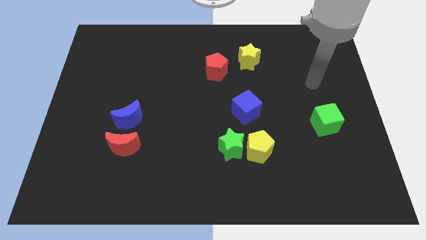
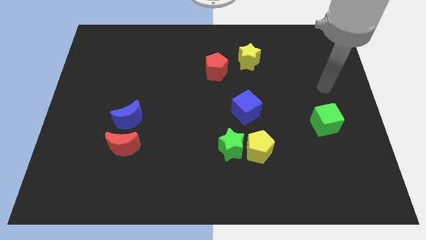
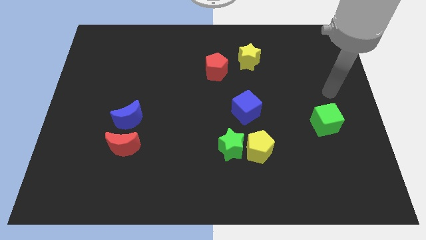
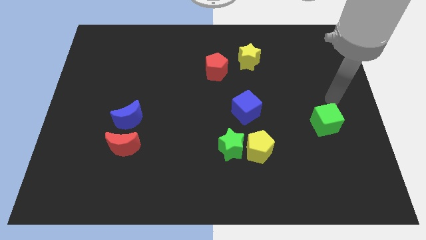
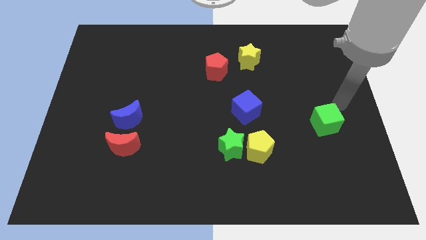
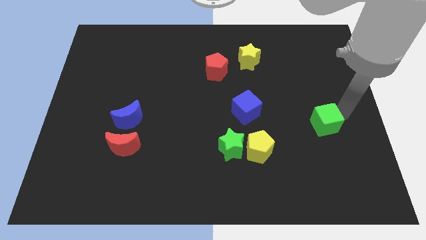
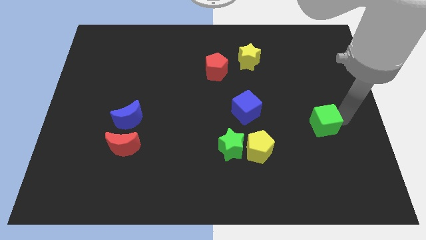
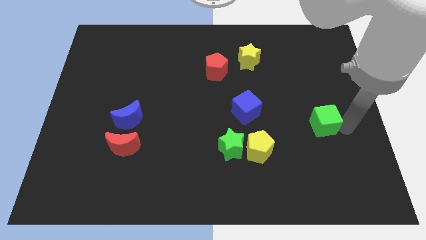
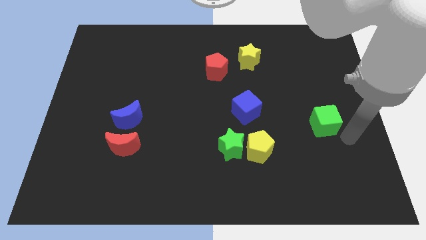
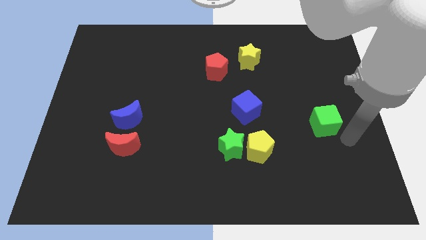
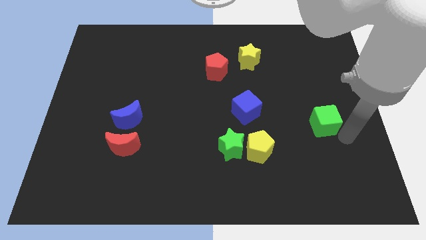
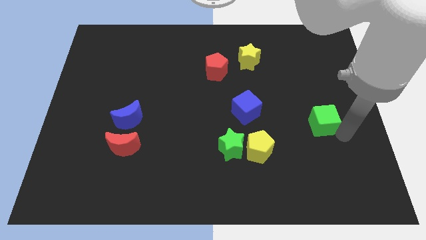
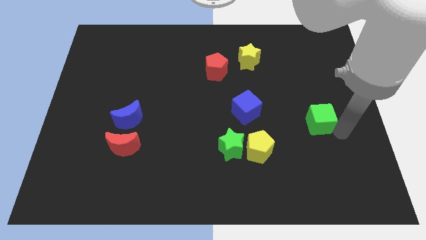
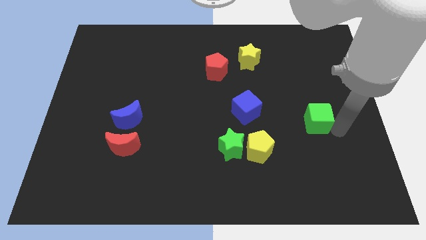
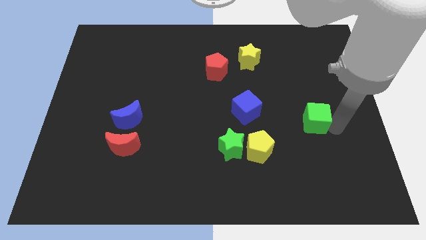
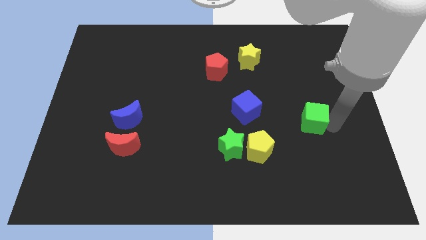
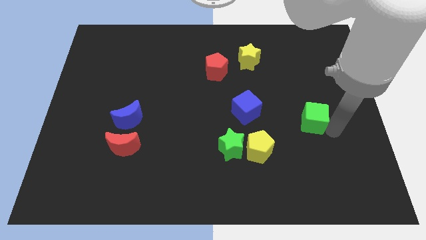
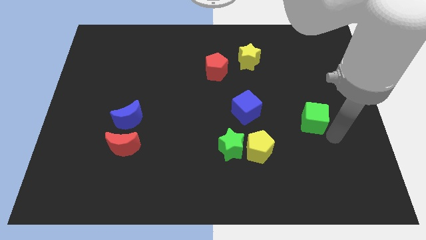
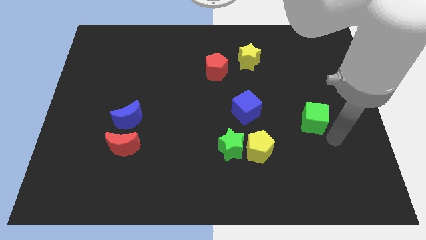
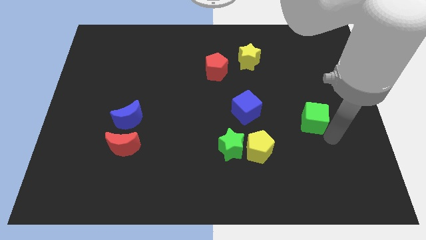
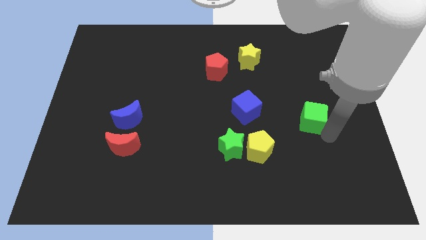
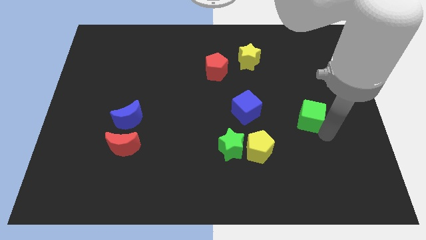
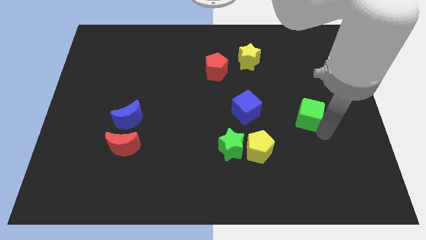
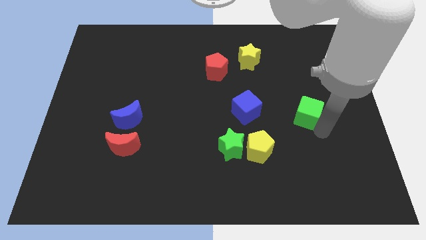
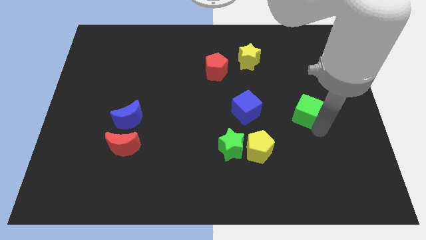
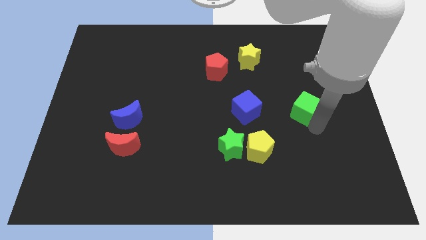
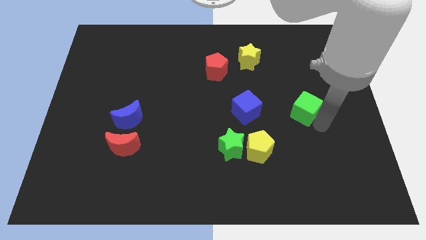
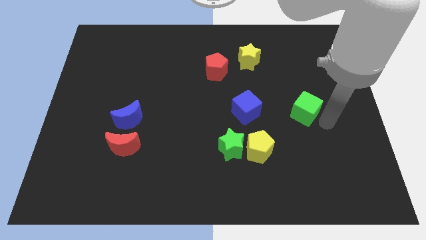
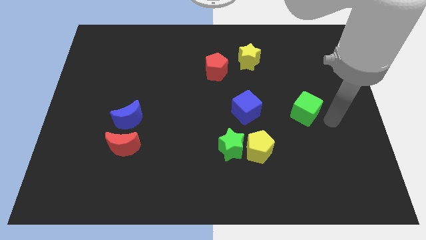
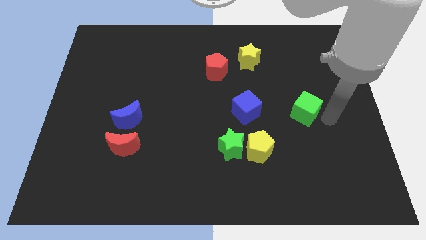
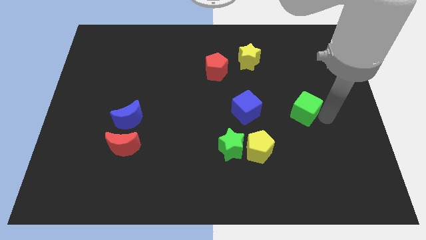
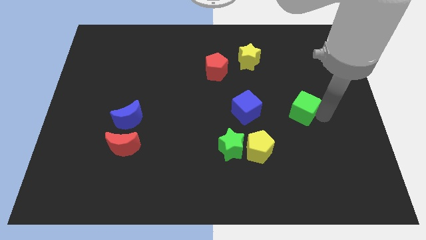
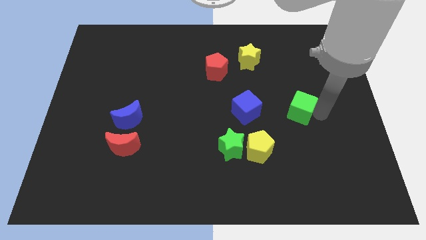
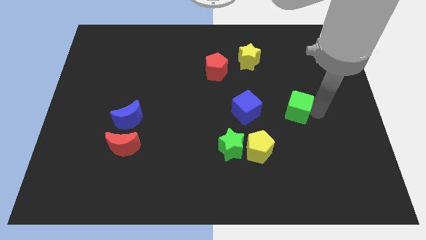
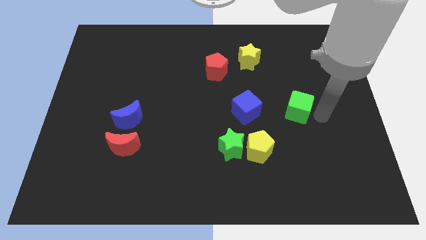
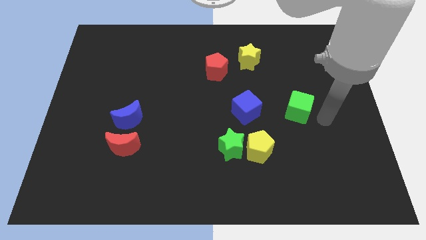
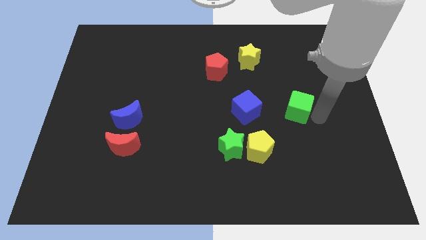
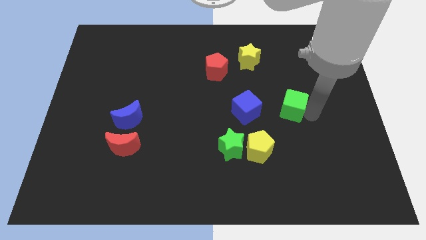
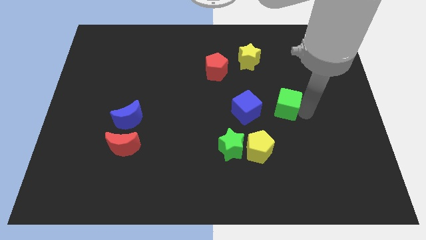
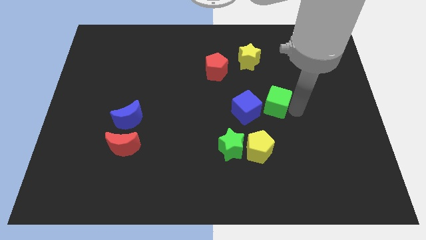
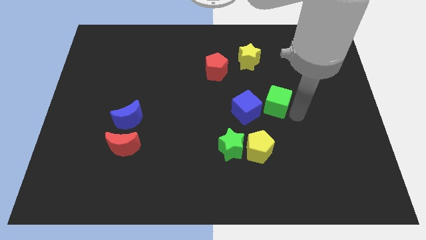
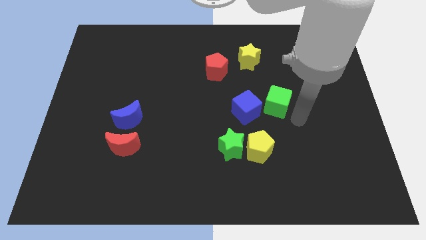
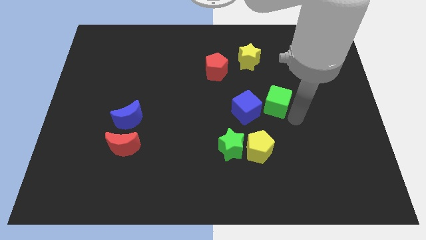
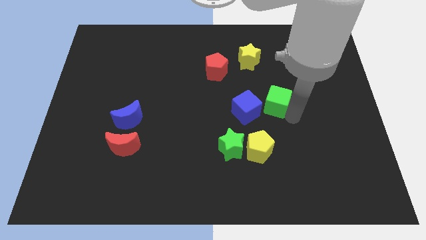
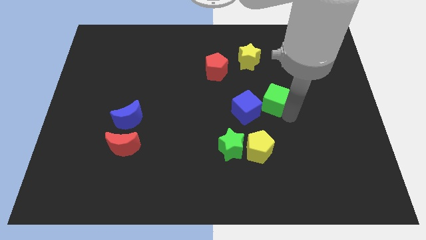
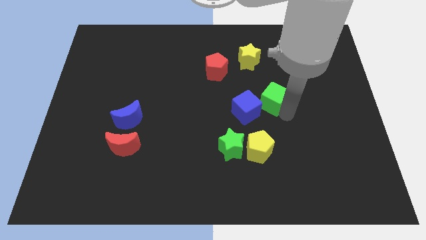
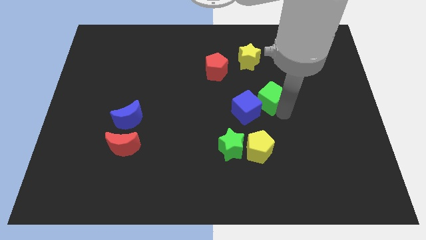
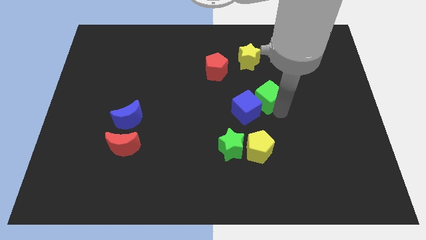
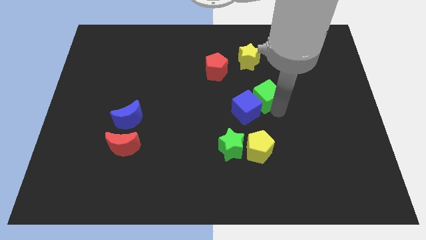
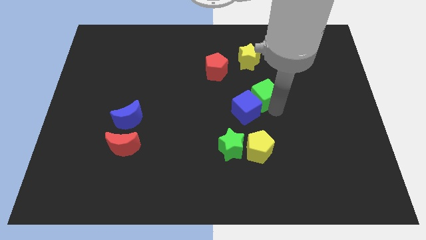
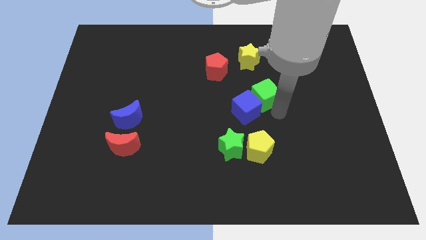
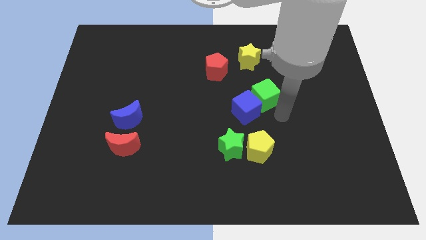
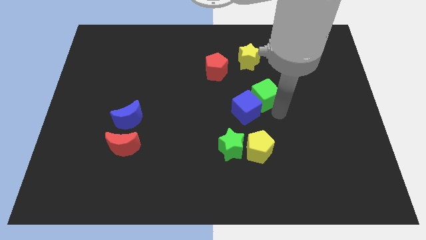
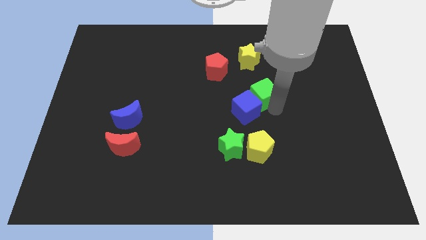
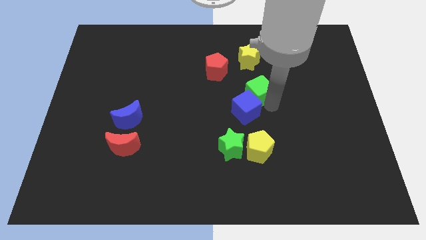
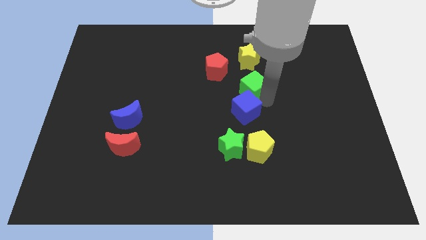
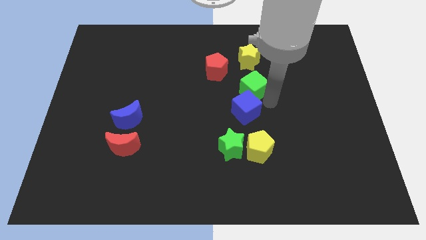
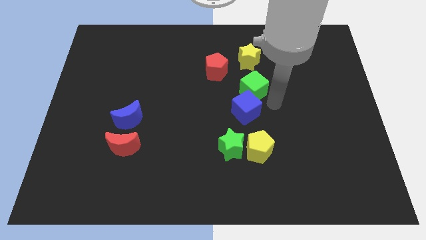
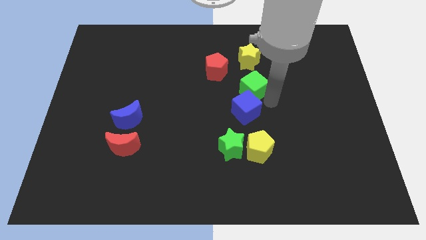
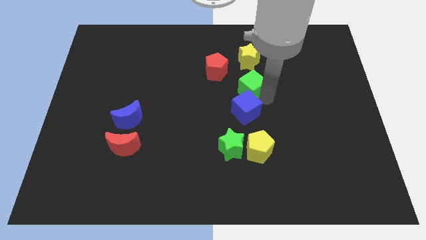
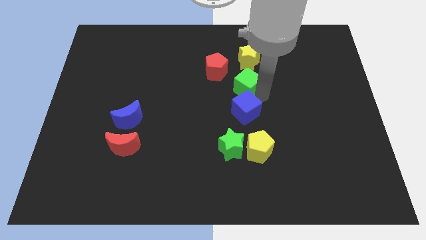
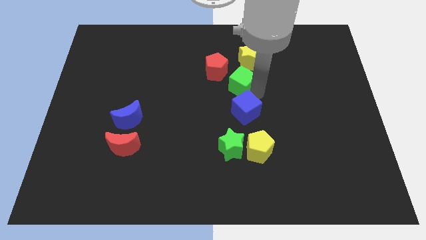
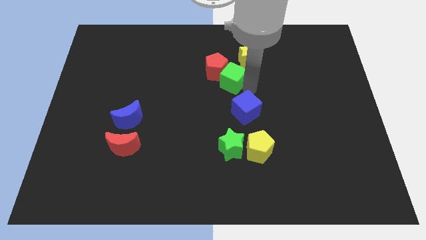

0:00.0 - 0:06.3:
put the green cube close to the red pentagon

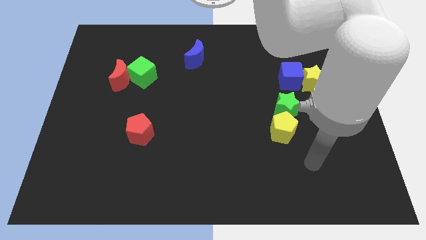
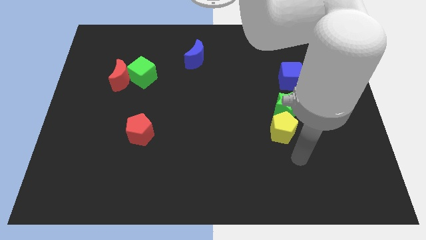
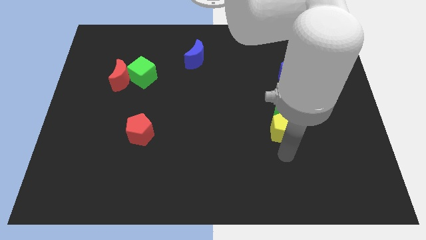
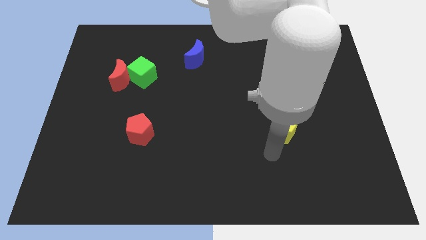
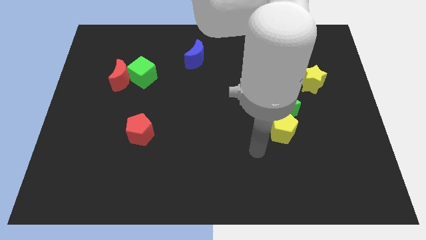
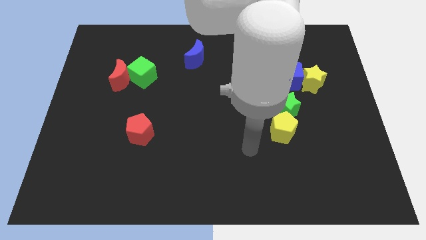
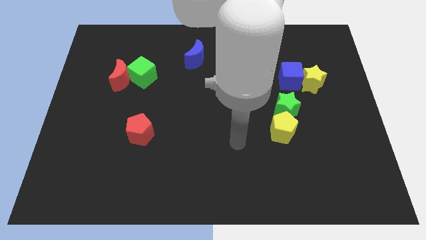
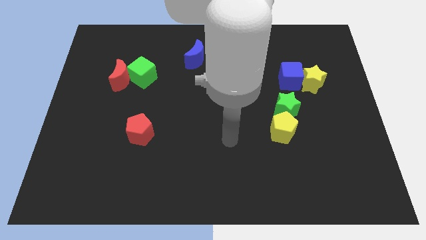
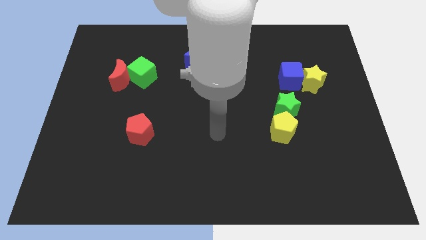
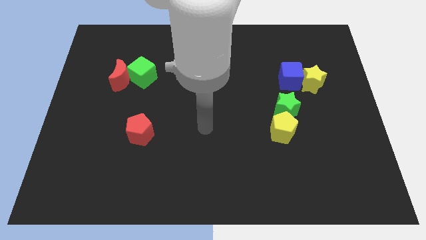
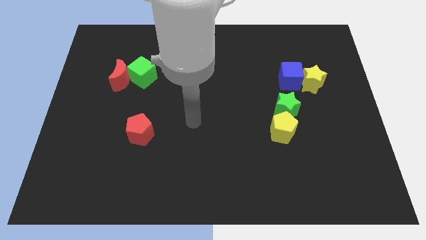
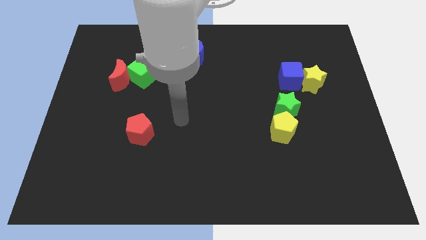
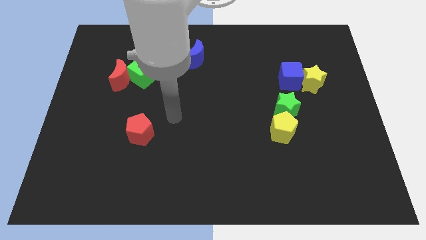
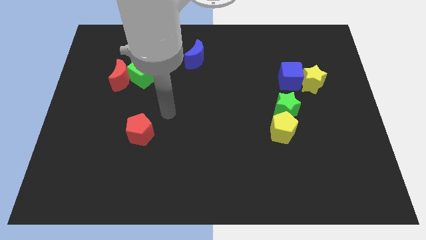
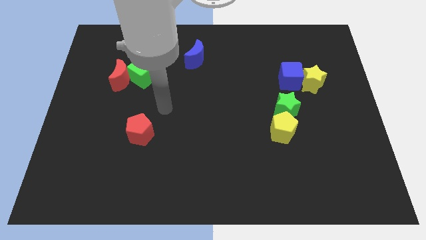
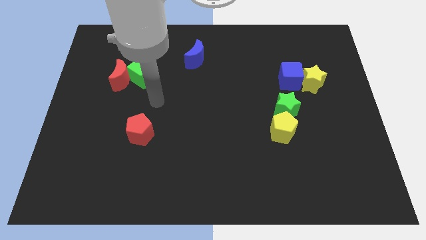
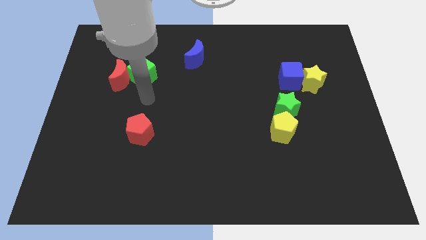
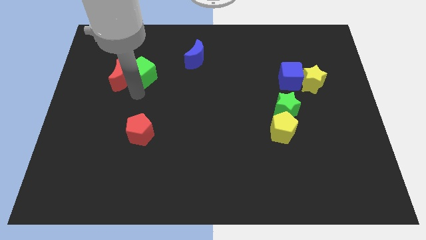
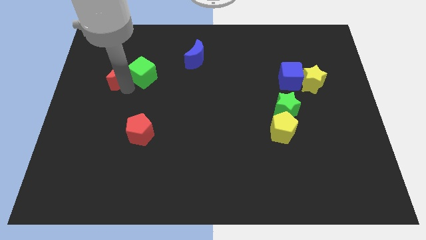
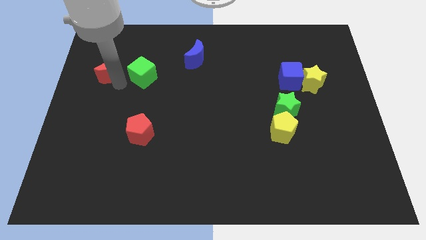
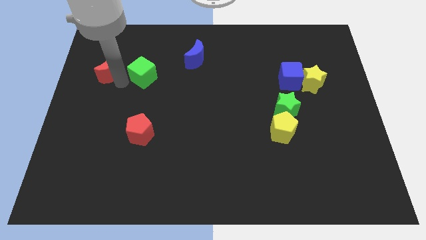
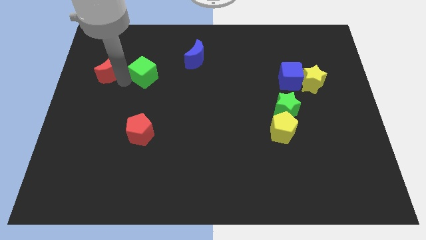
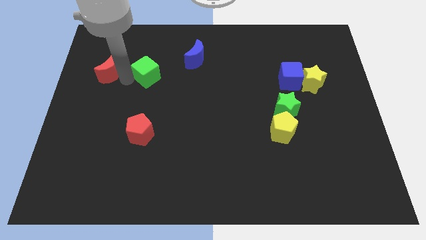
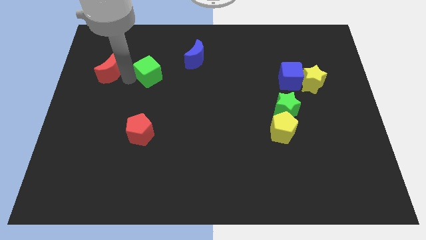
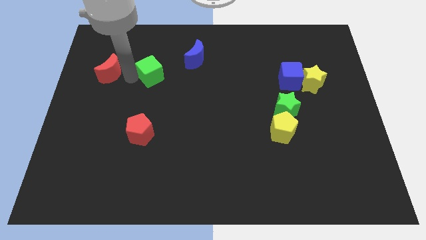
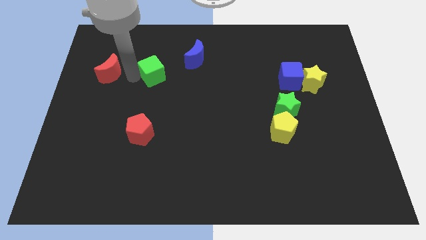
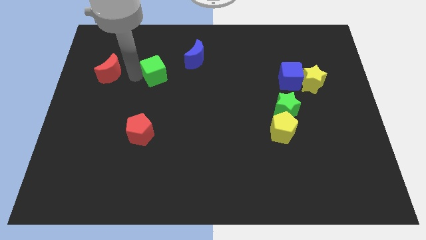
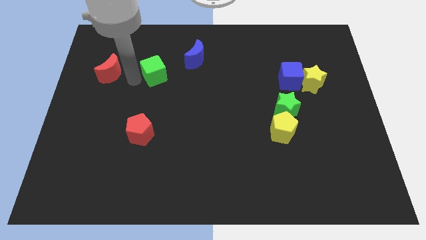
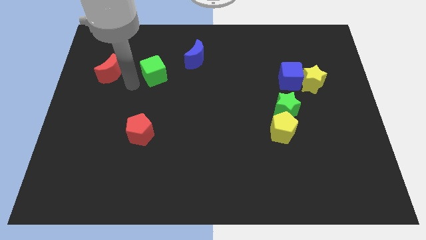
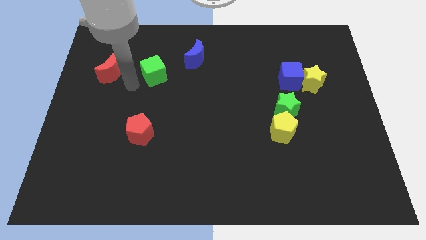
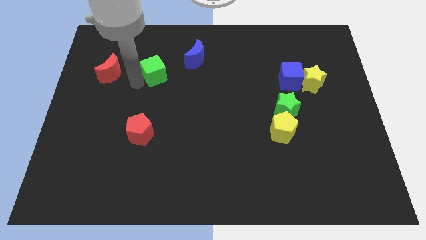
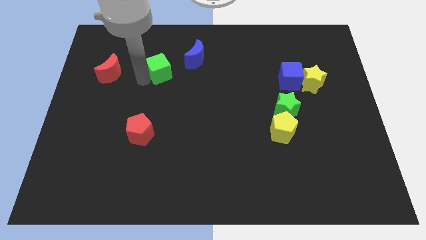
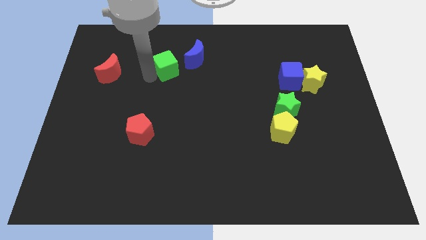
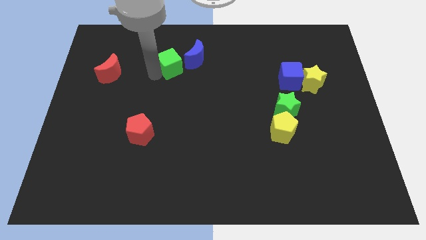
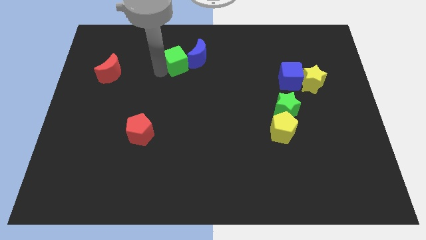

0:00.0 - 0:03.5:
slide the green cube towards the blue moon
